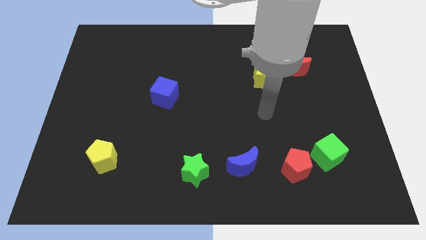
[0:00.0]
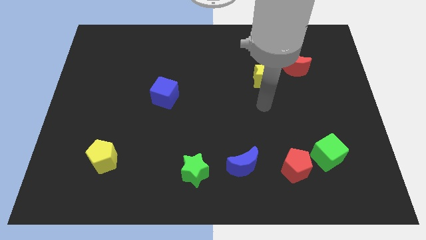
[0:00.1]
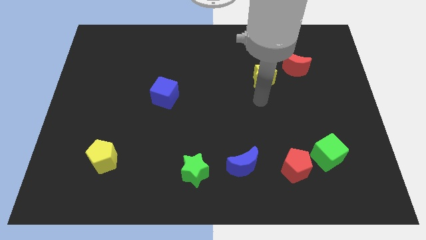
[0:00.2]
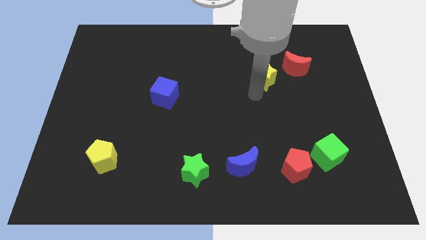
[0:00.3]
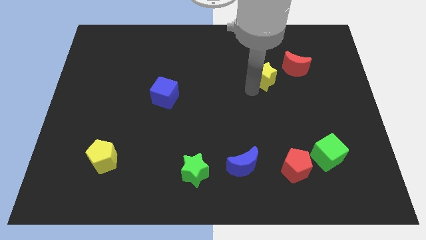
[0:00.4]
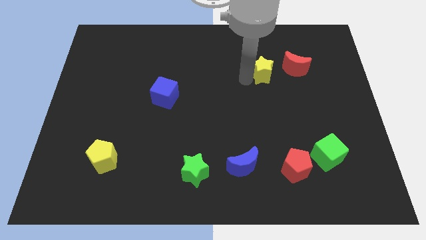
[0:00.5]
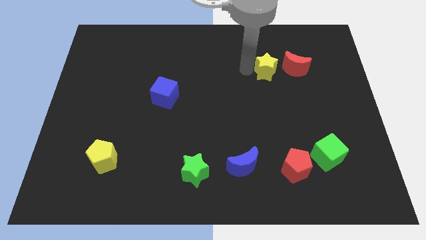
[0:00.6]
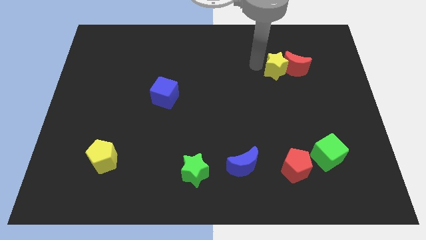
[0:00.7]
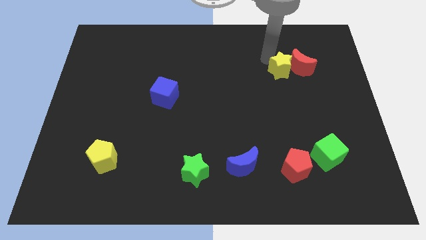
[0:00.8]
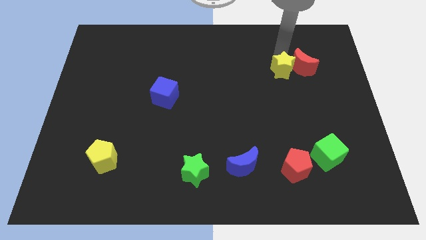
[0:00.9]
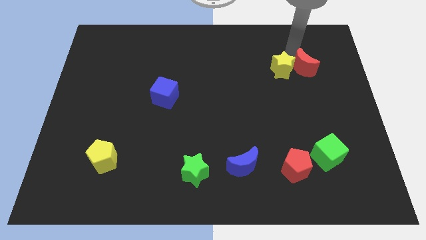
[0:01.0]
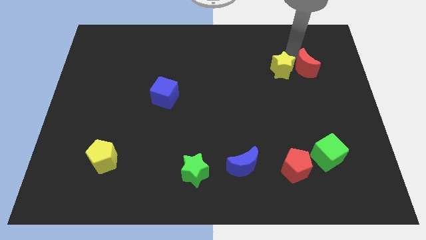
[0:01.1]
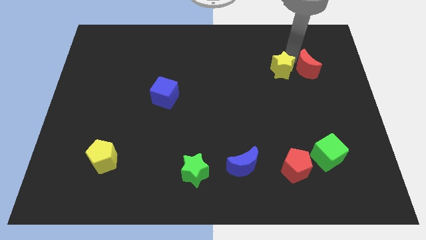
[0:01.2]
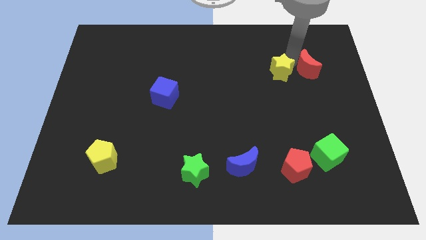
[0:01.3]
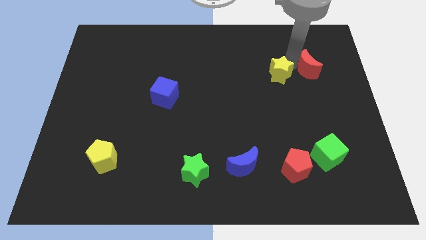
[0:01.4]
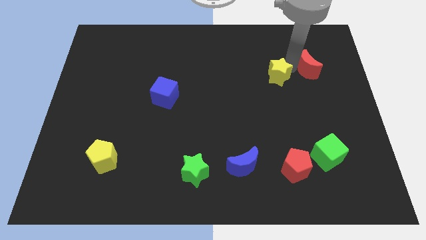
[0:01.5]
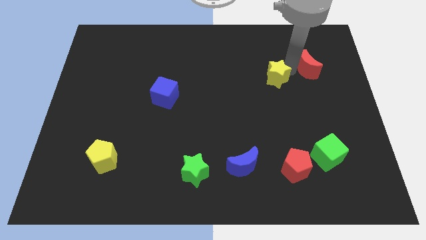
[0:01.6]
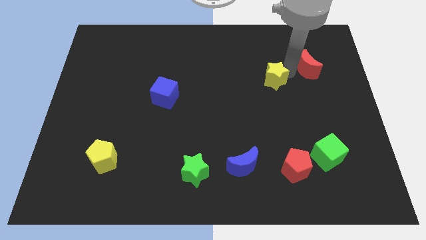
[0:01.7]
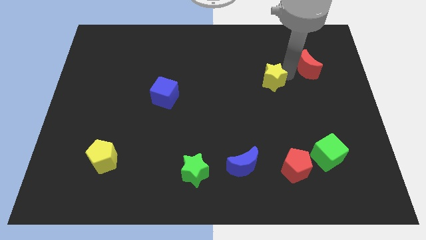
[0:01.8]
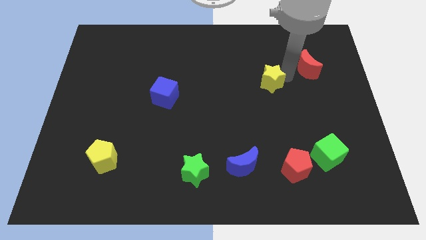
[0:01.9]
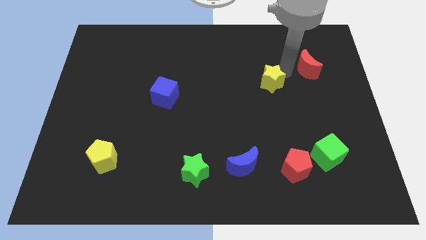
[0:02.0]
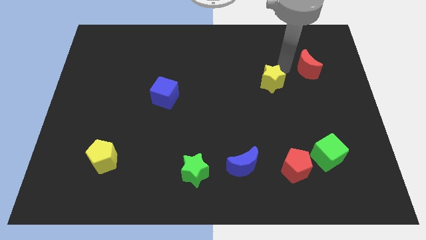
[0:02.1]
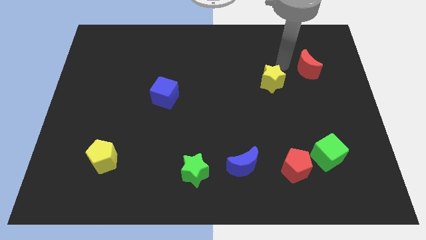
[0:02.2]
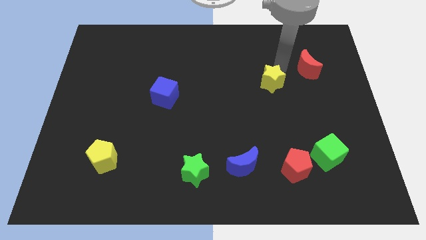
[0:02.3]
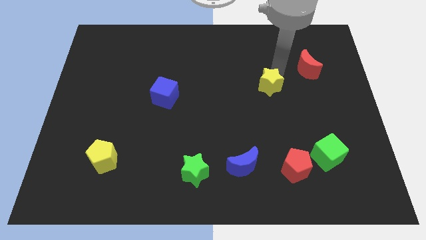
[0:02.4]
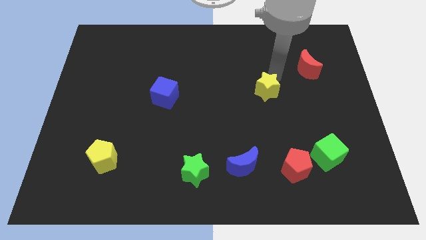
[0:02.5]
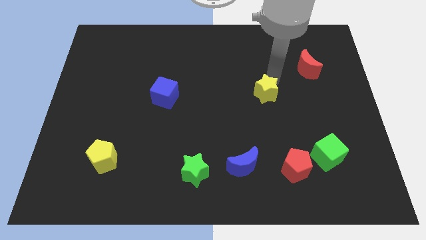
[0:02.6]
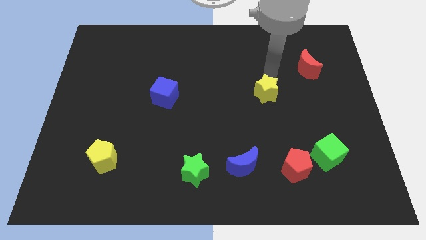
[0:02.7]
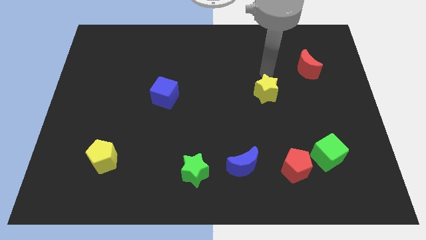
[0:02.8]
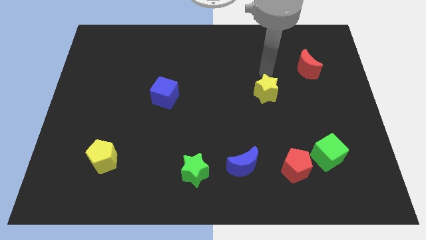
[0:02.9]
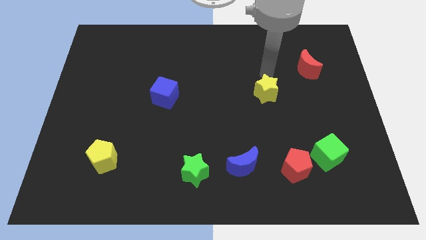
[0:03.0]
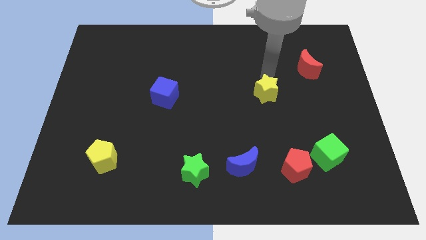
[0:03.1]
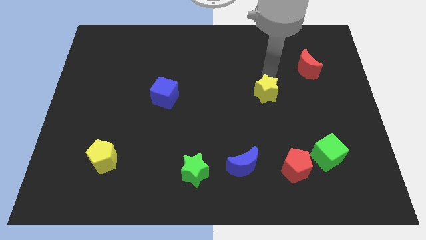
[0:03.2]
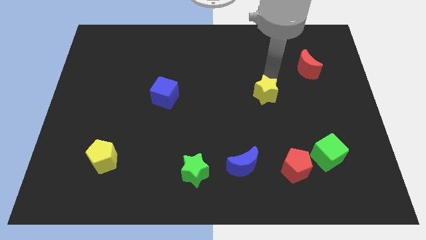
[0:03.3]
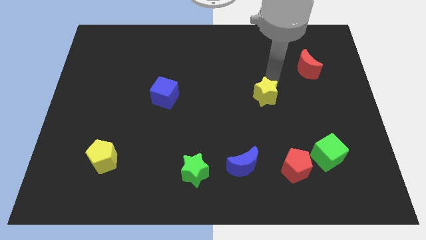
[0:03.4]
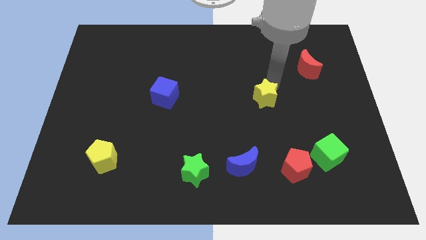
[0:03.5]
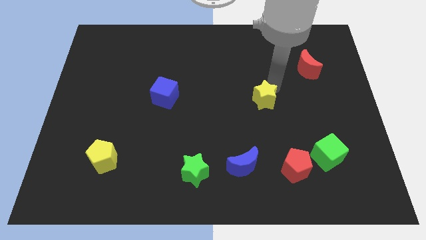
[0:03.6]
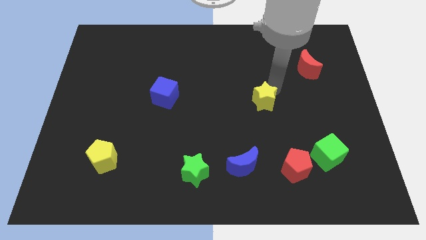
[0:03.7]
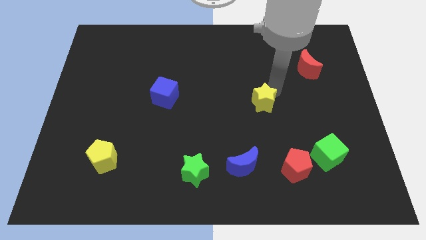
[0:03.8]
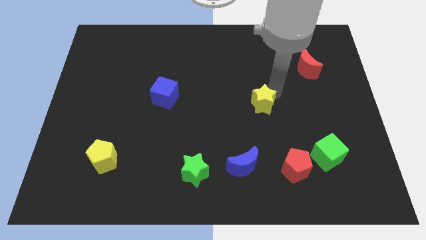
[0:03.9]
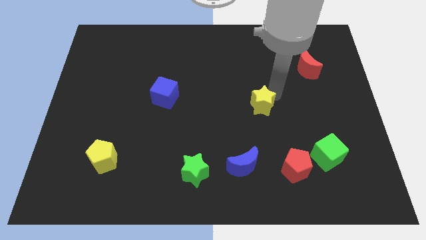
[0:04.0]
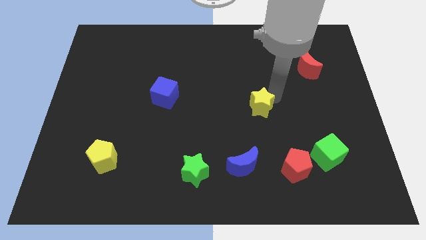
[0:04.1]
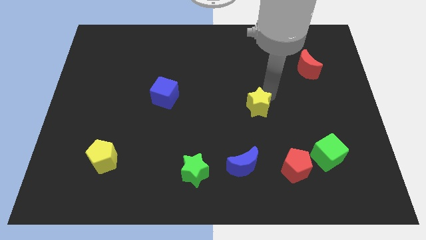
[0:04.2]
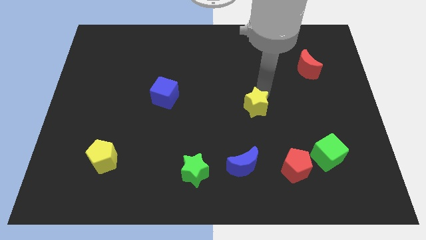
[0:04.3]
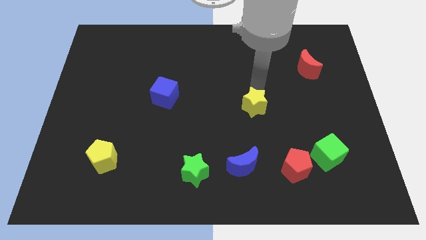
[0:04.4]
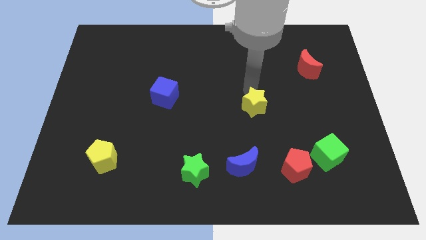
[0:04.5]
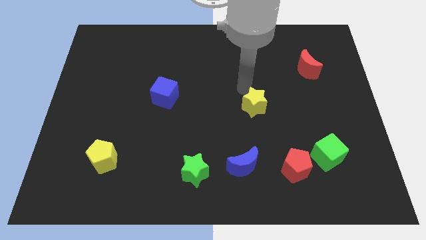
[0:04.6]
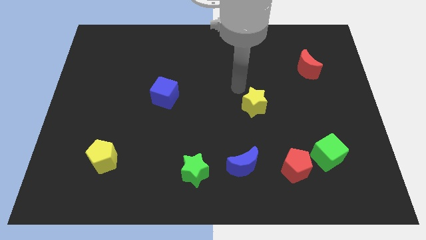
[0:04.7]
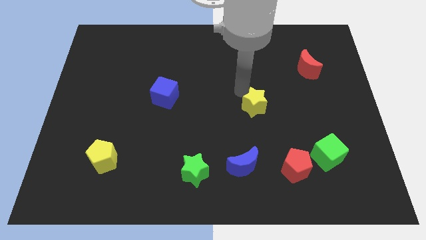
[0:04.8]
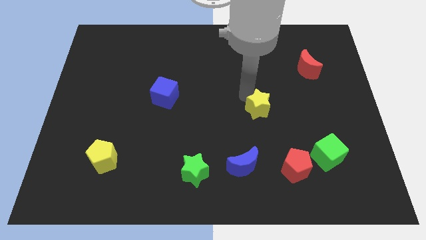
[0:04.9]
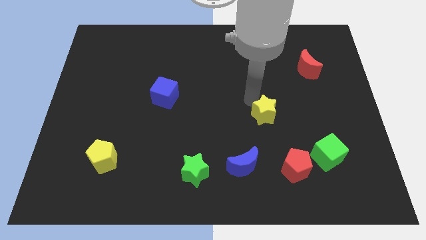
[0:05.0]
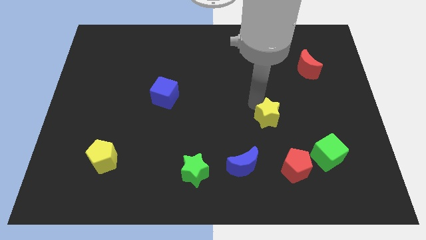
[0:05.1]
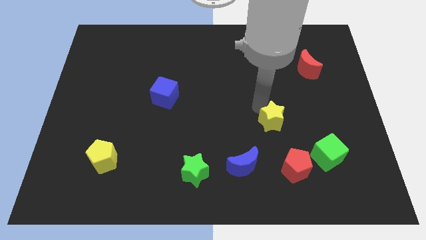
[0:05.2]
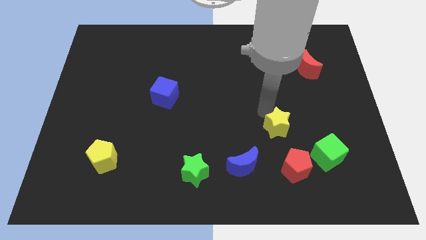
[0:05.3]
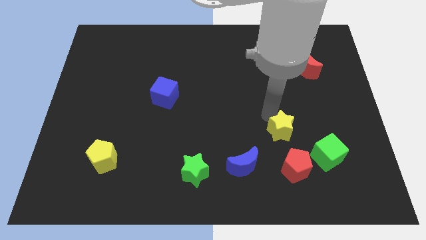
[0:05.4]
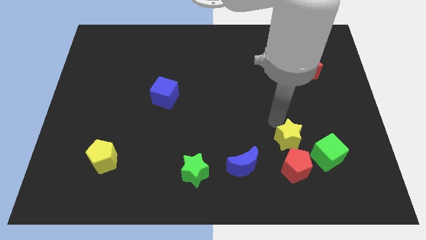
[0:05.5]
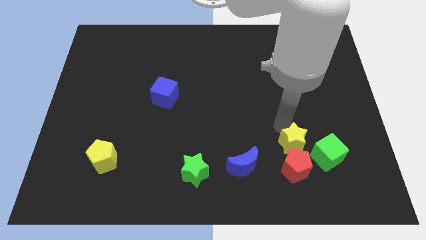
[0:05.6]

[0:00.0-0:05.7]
move the yellow star to the red pentagon
